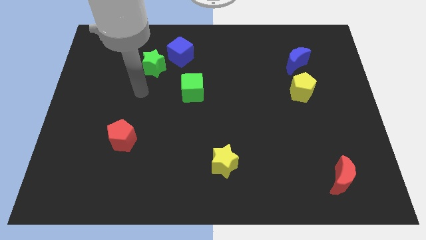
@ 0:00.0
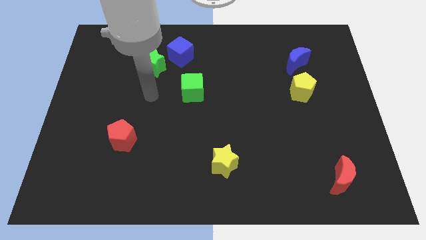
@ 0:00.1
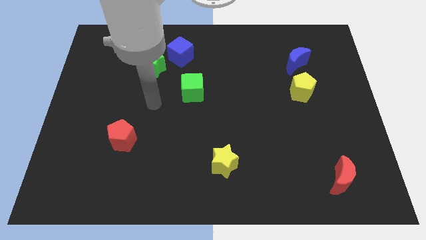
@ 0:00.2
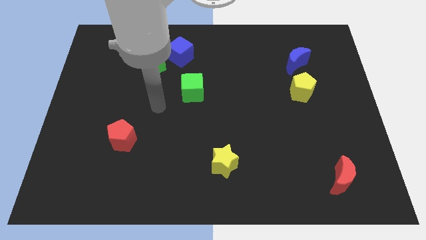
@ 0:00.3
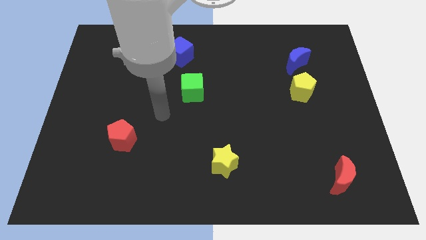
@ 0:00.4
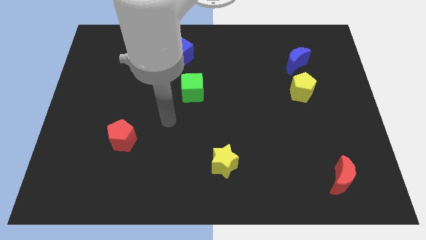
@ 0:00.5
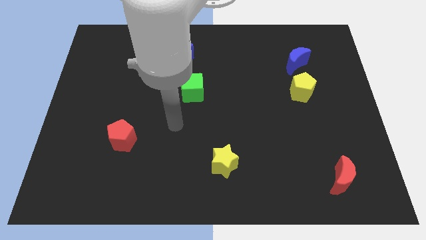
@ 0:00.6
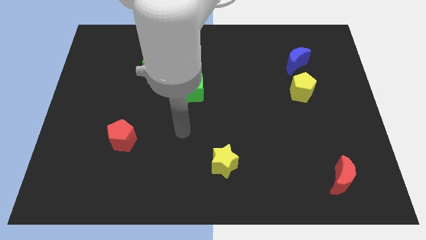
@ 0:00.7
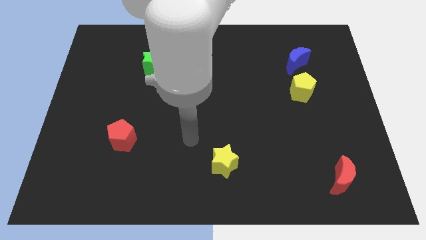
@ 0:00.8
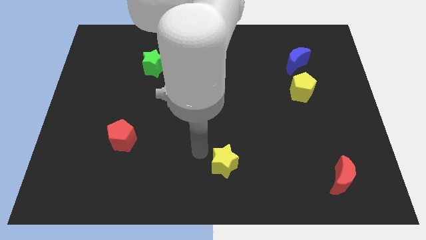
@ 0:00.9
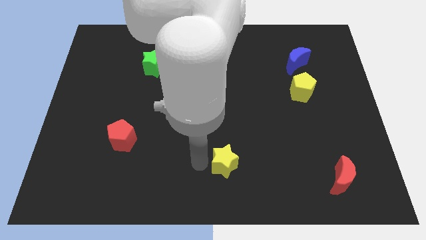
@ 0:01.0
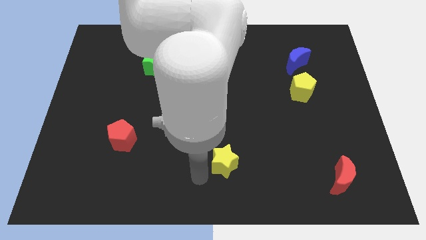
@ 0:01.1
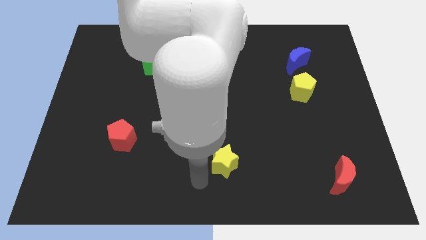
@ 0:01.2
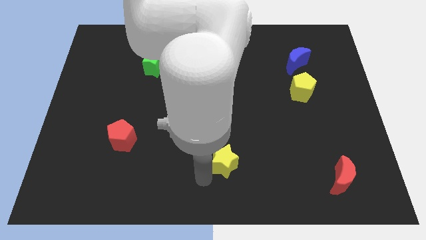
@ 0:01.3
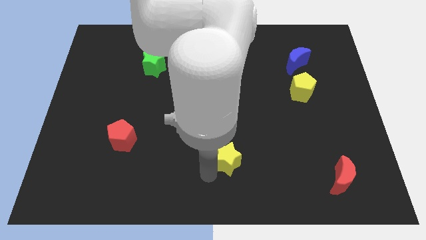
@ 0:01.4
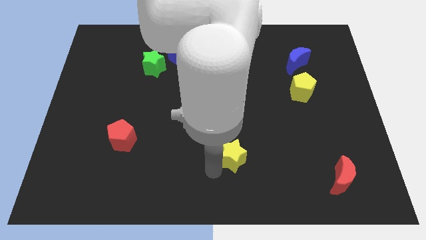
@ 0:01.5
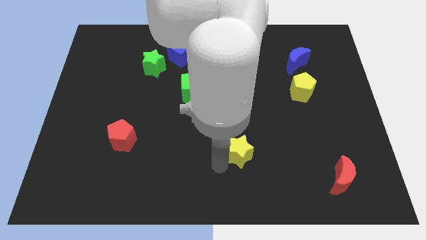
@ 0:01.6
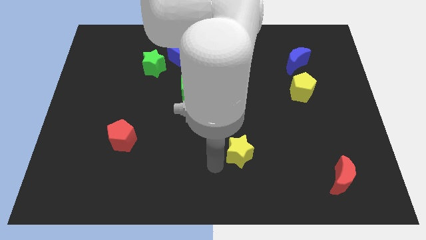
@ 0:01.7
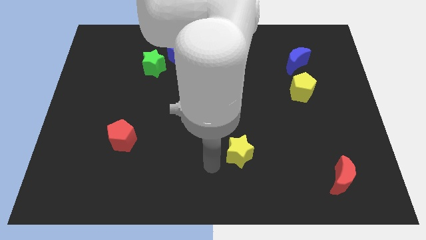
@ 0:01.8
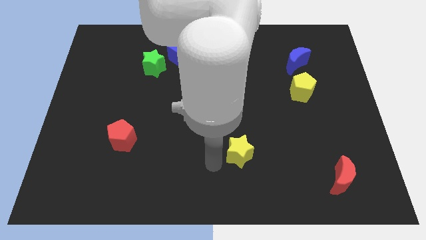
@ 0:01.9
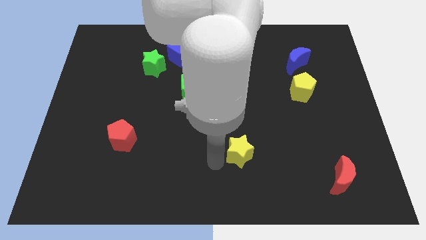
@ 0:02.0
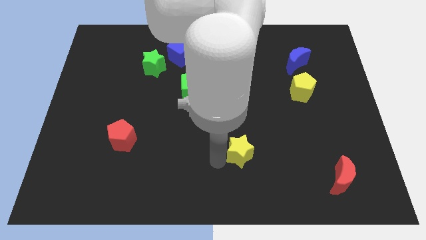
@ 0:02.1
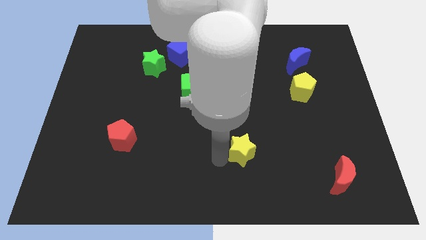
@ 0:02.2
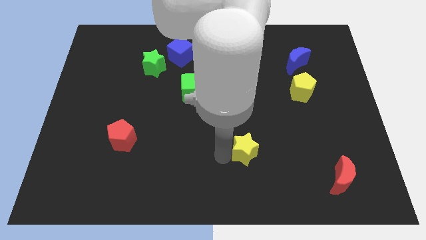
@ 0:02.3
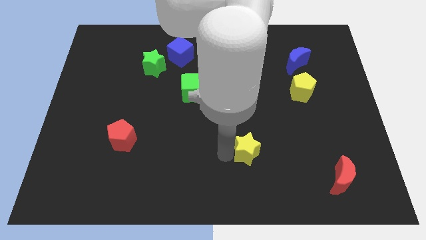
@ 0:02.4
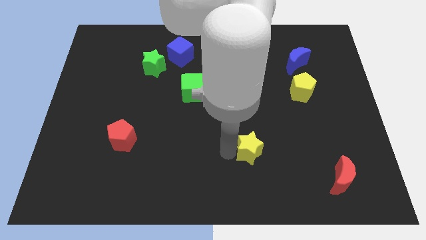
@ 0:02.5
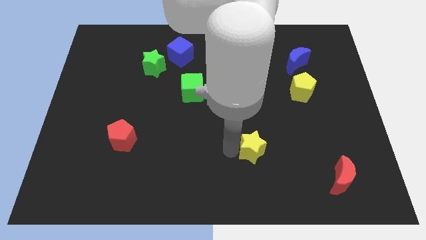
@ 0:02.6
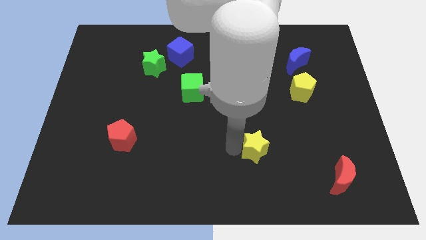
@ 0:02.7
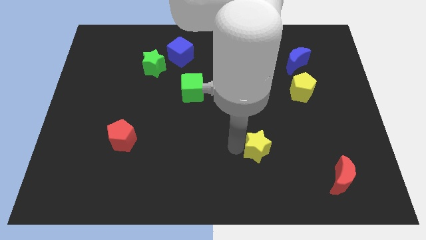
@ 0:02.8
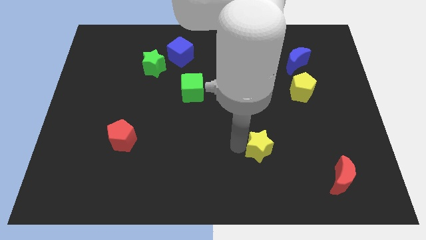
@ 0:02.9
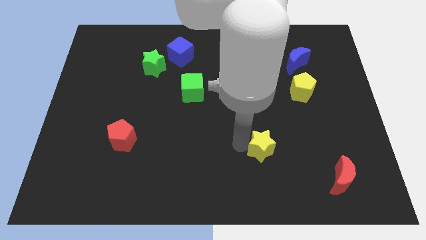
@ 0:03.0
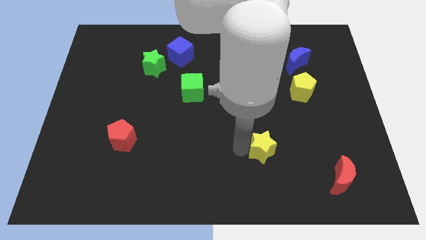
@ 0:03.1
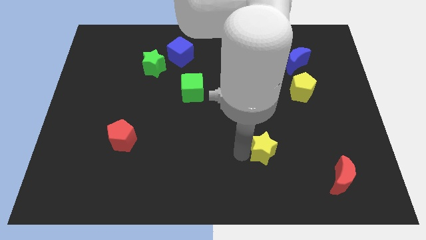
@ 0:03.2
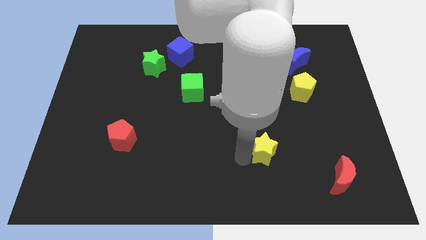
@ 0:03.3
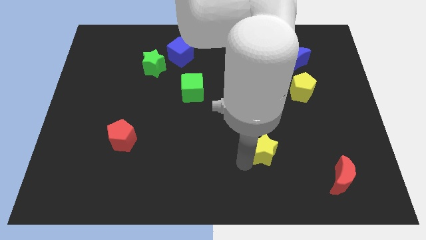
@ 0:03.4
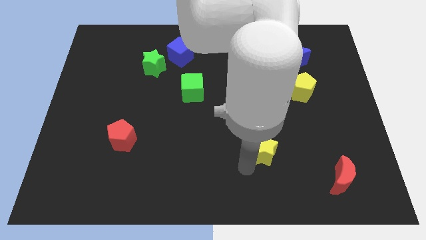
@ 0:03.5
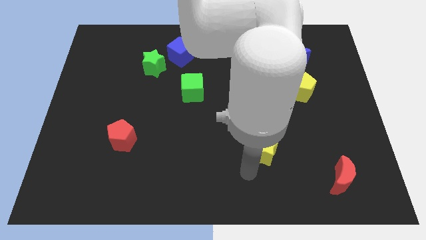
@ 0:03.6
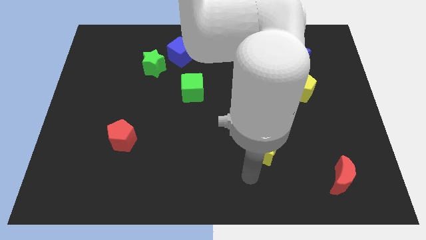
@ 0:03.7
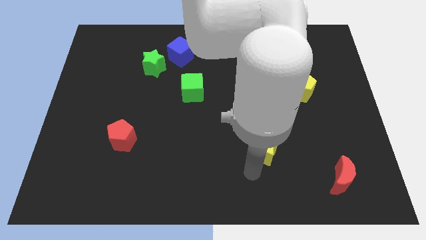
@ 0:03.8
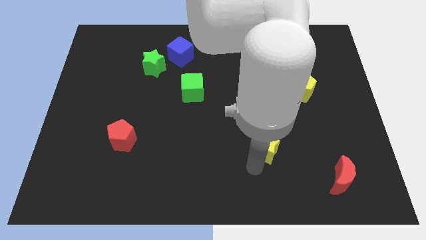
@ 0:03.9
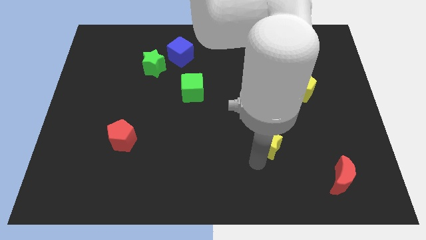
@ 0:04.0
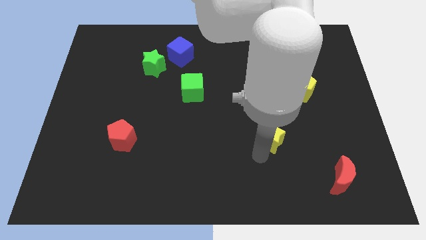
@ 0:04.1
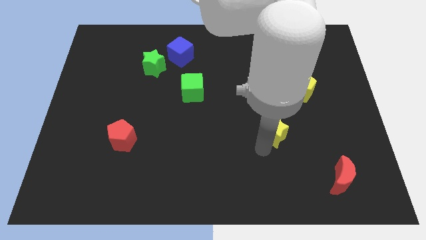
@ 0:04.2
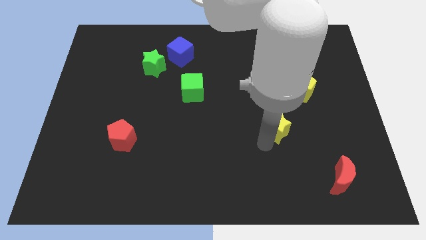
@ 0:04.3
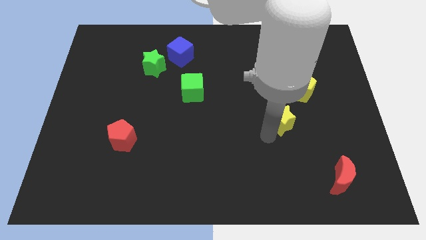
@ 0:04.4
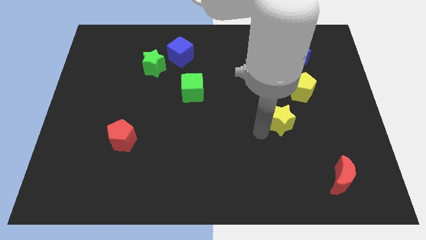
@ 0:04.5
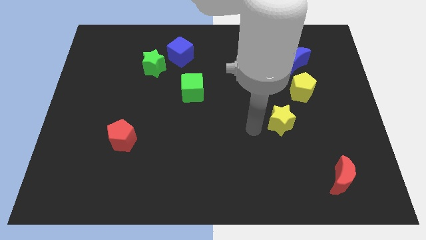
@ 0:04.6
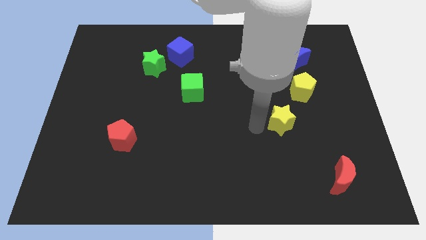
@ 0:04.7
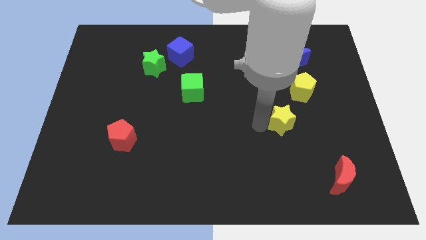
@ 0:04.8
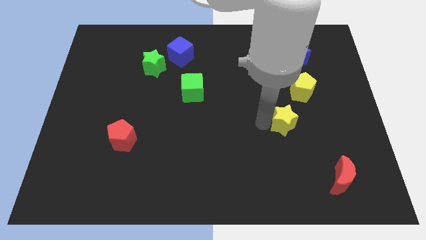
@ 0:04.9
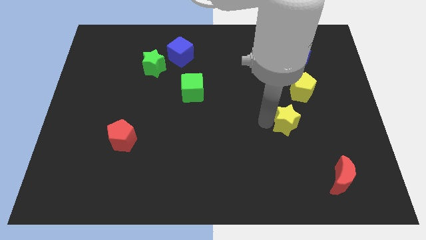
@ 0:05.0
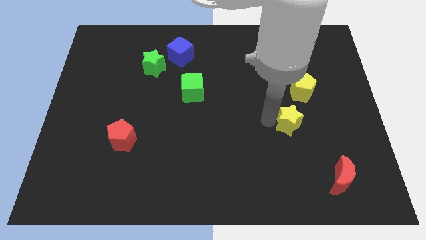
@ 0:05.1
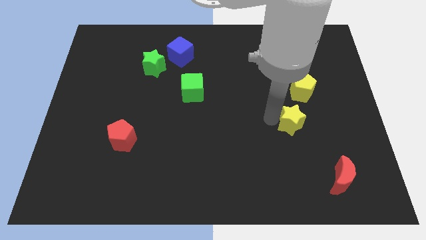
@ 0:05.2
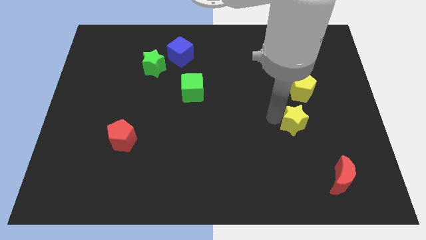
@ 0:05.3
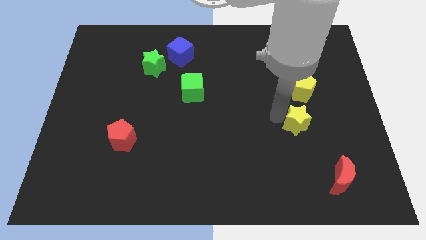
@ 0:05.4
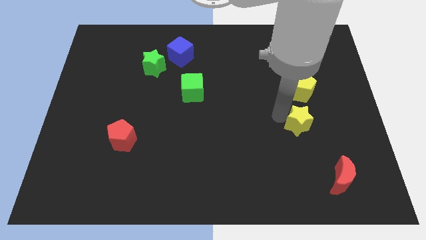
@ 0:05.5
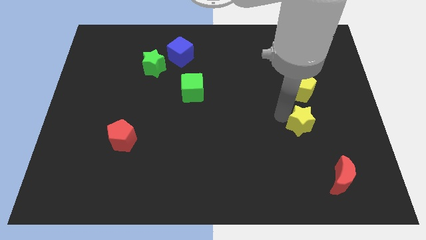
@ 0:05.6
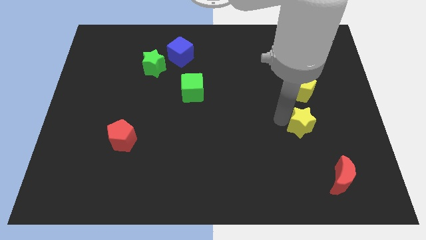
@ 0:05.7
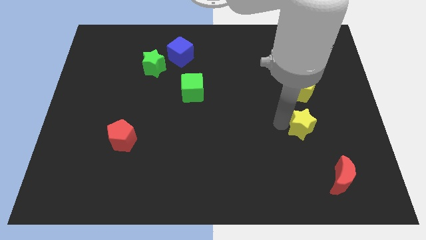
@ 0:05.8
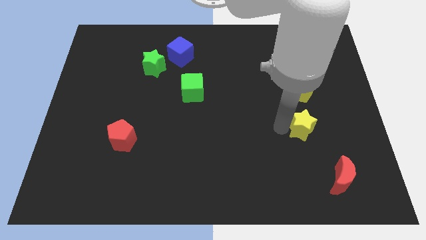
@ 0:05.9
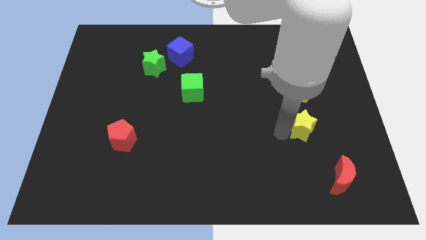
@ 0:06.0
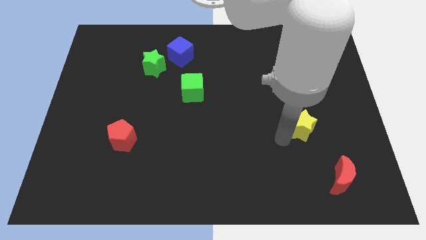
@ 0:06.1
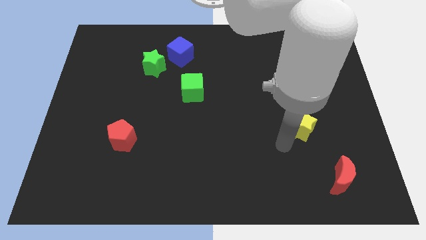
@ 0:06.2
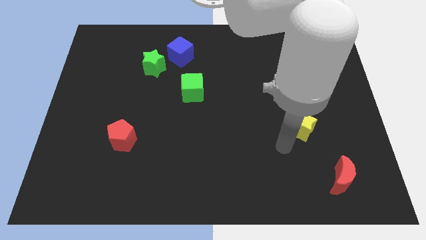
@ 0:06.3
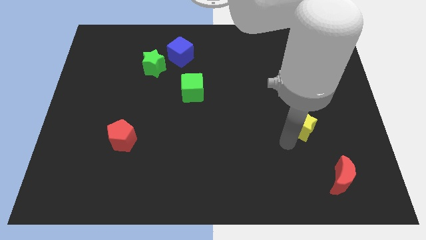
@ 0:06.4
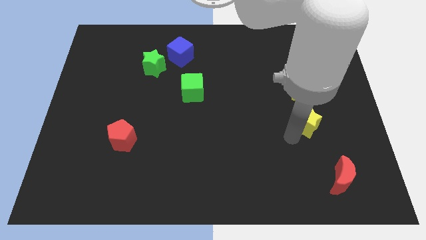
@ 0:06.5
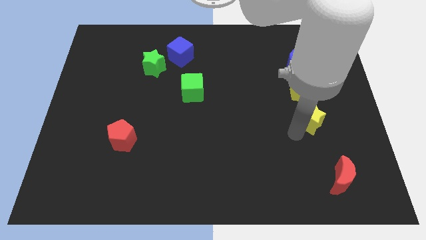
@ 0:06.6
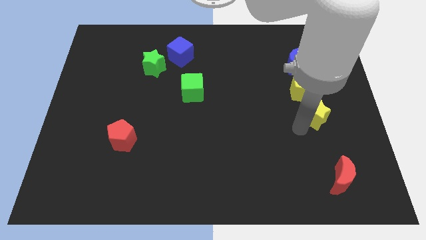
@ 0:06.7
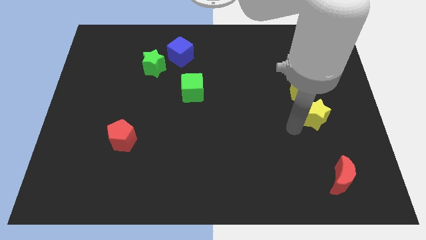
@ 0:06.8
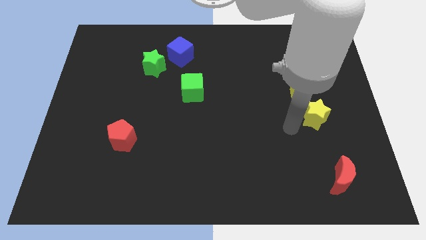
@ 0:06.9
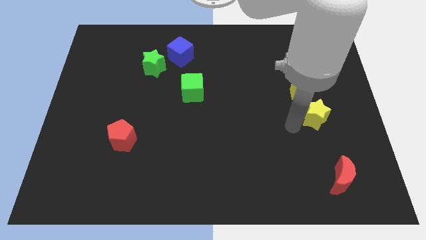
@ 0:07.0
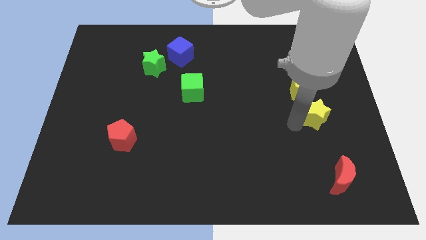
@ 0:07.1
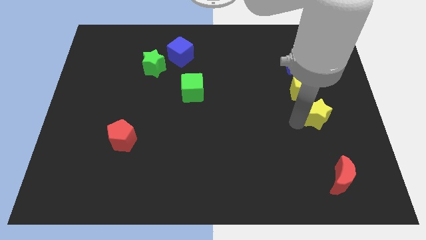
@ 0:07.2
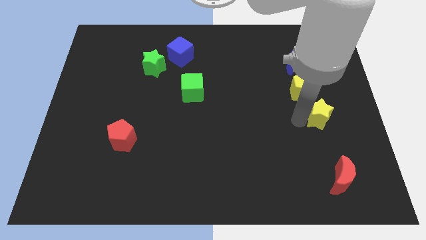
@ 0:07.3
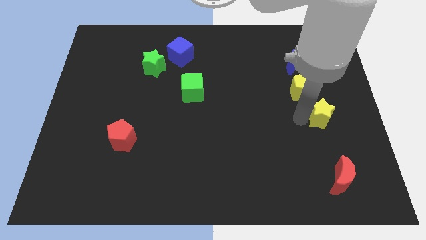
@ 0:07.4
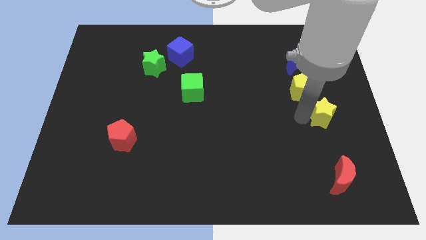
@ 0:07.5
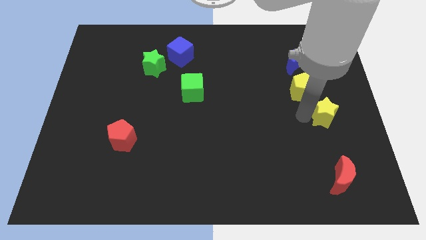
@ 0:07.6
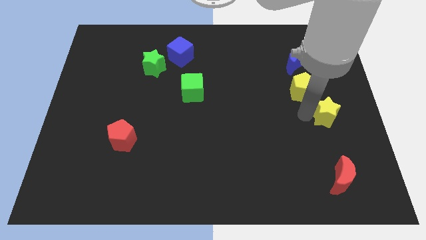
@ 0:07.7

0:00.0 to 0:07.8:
slide the yellow star to the right side
